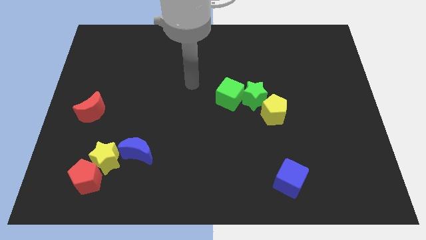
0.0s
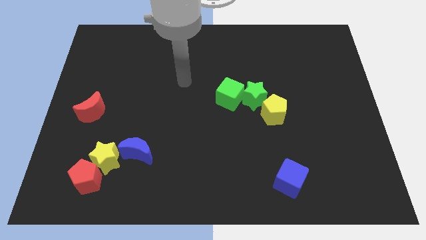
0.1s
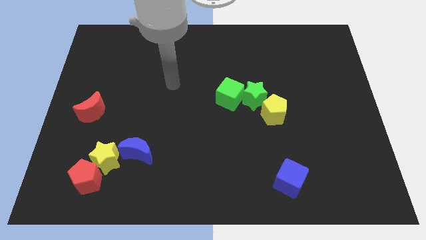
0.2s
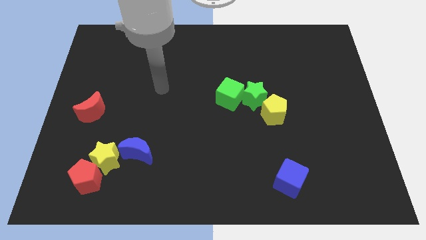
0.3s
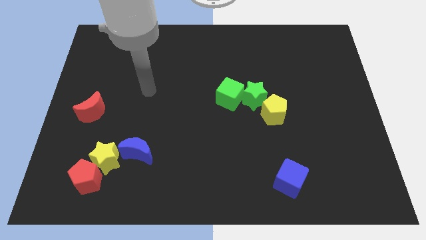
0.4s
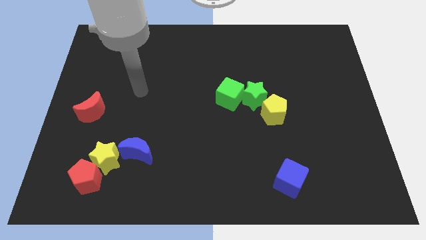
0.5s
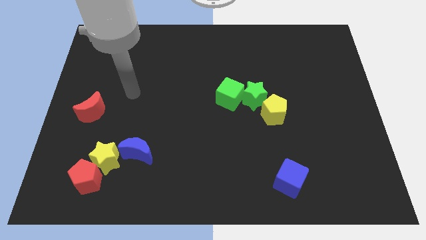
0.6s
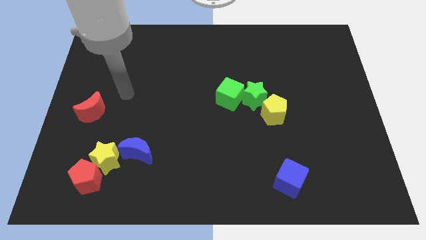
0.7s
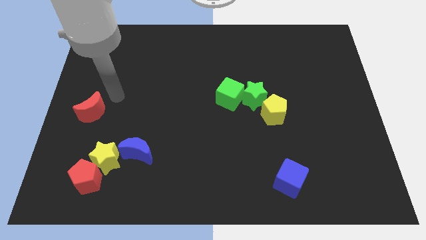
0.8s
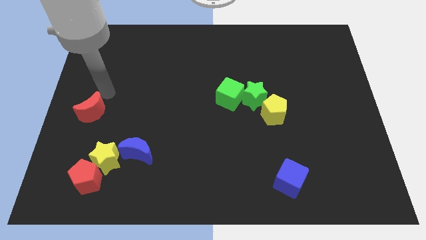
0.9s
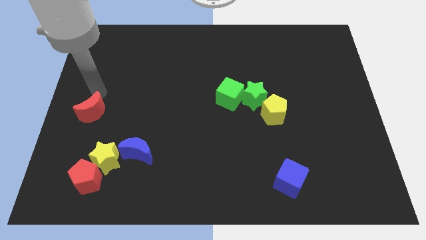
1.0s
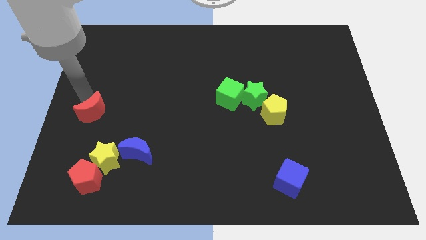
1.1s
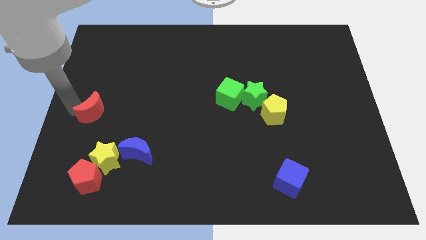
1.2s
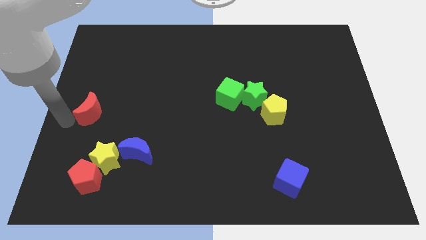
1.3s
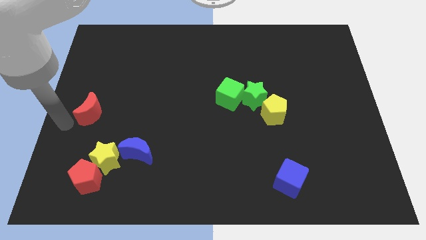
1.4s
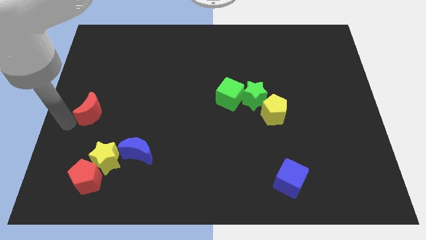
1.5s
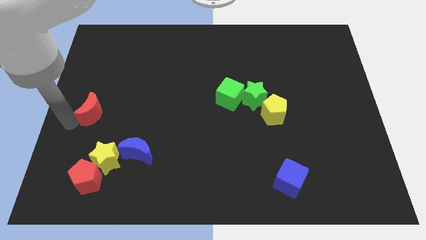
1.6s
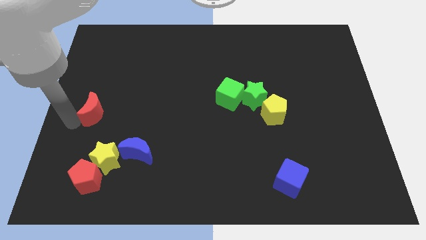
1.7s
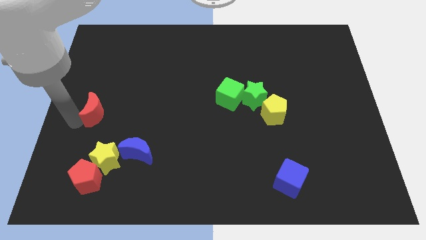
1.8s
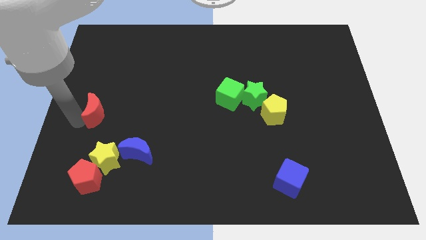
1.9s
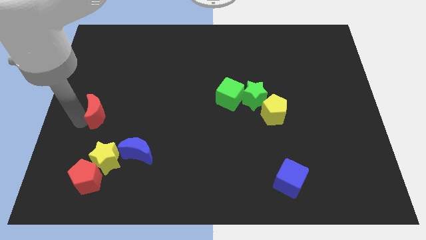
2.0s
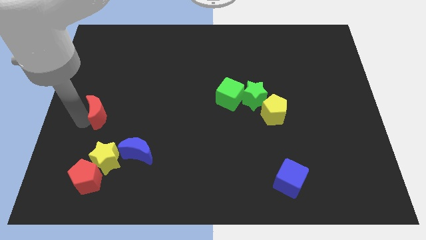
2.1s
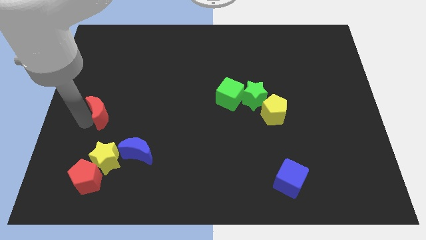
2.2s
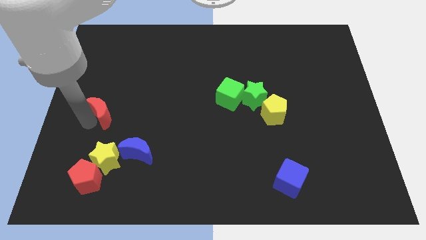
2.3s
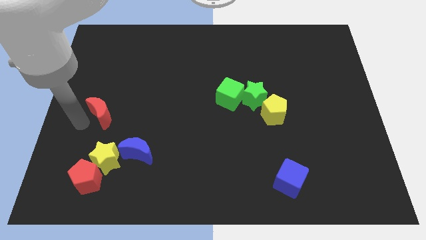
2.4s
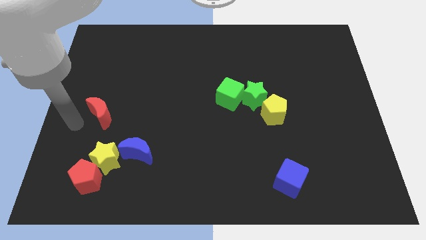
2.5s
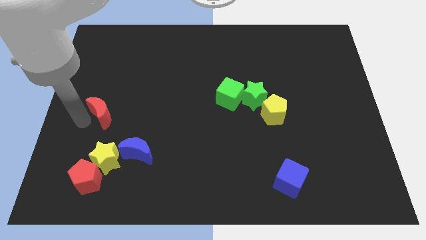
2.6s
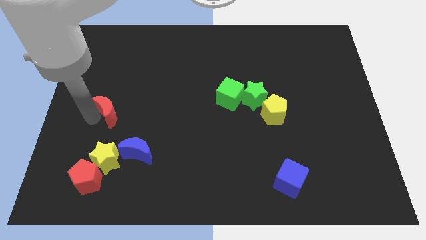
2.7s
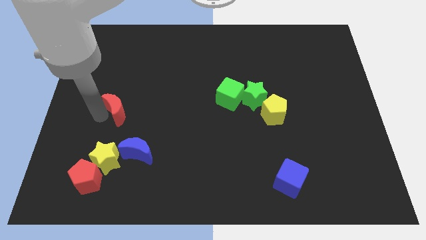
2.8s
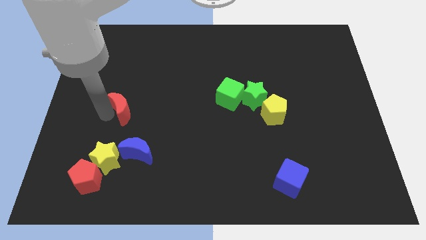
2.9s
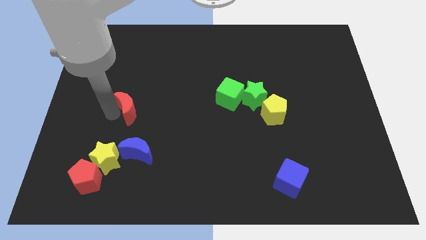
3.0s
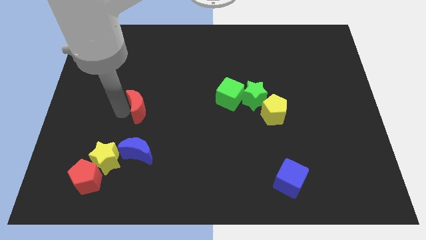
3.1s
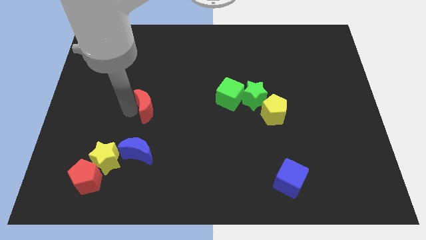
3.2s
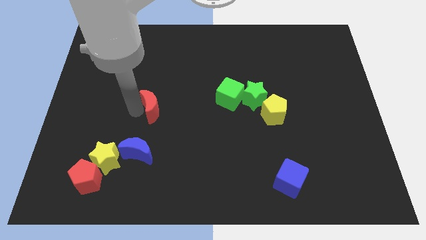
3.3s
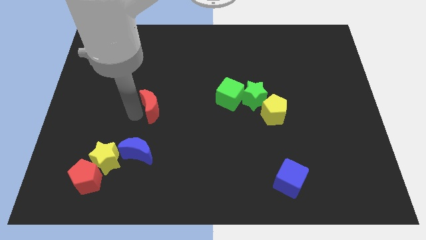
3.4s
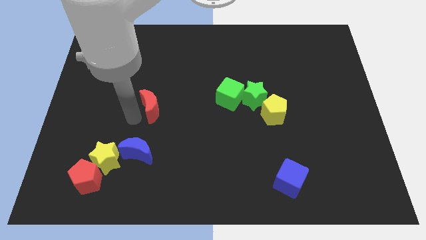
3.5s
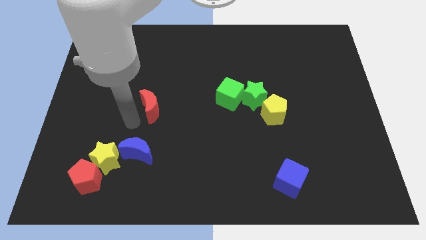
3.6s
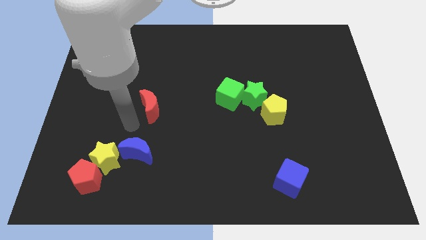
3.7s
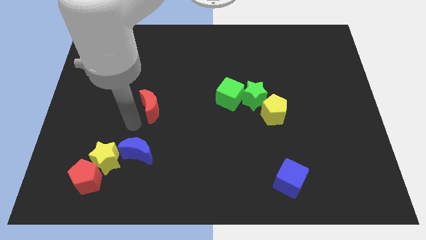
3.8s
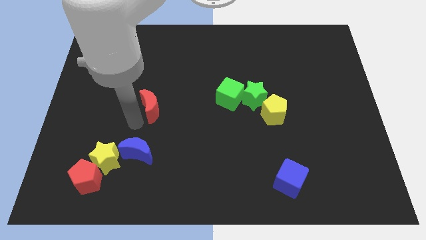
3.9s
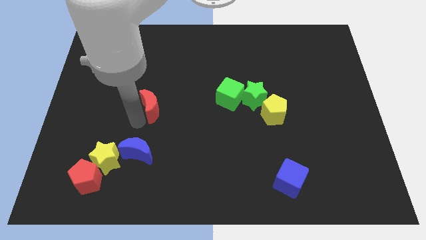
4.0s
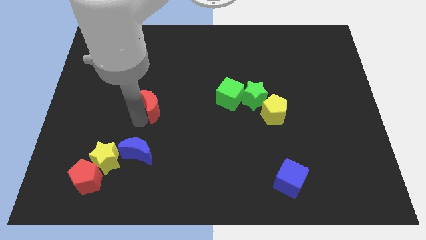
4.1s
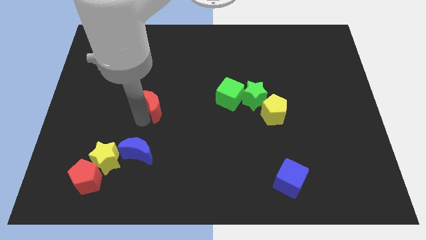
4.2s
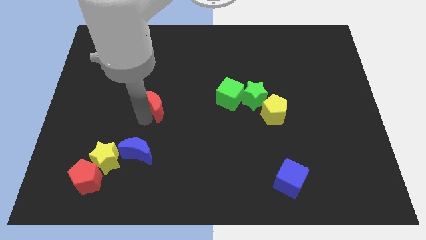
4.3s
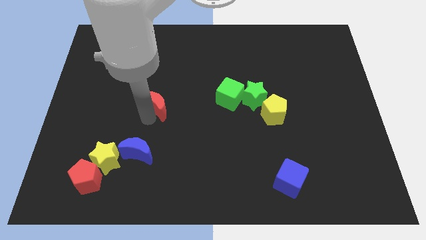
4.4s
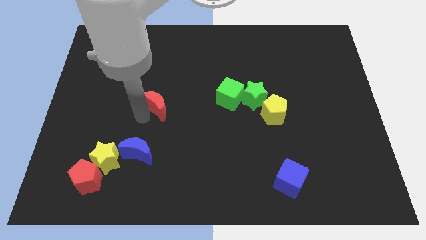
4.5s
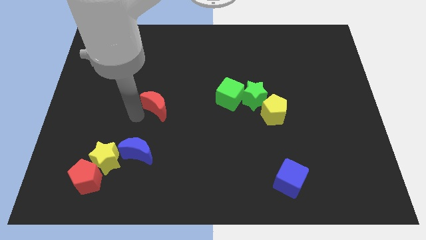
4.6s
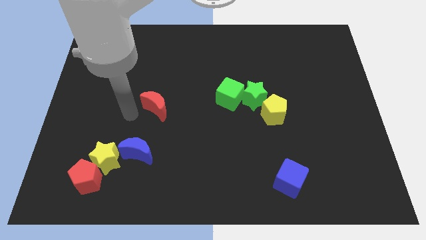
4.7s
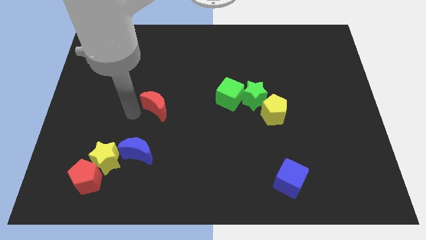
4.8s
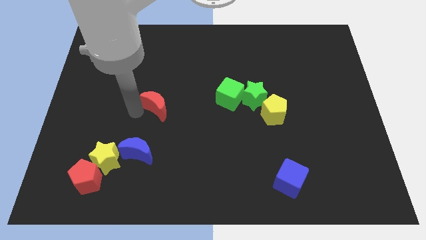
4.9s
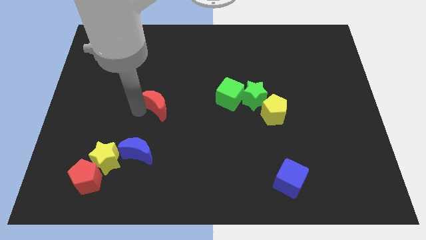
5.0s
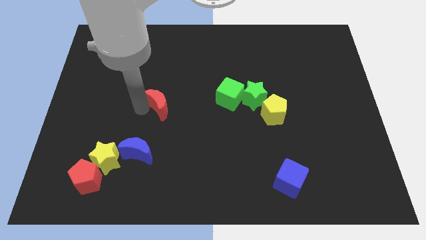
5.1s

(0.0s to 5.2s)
slide the red moon to the center of the board

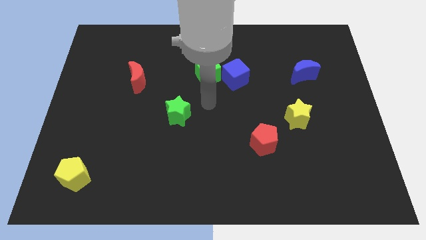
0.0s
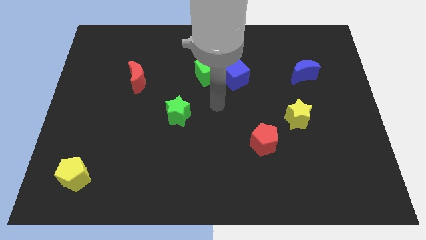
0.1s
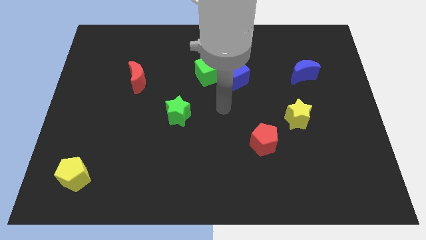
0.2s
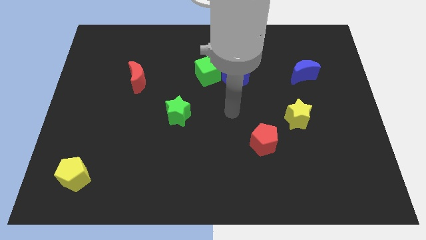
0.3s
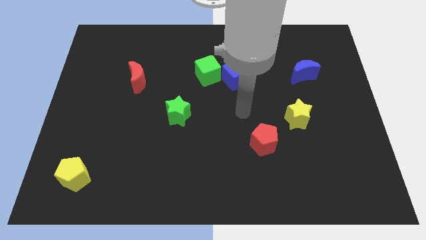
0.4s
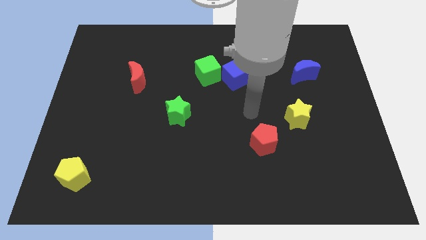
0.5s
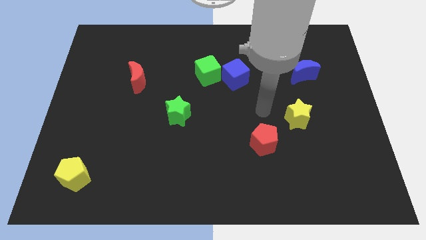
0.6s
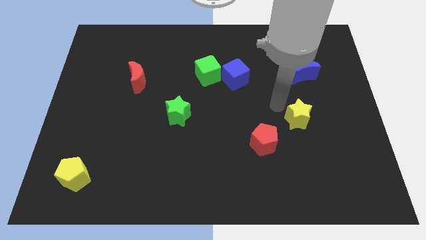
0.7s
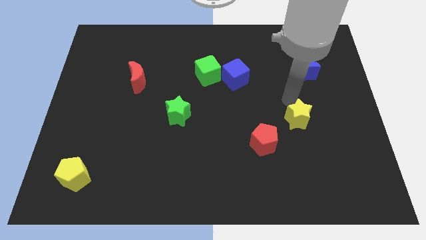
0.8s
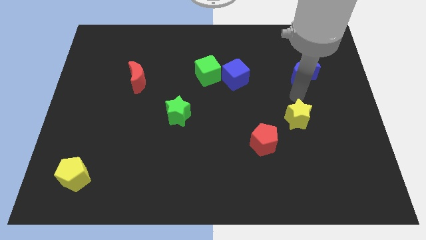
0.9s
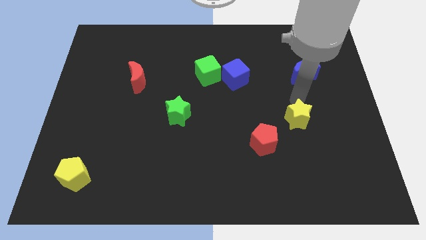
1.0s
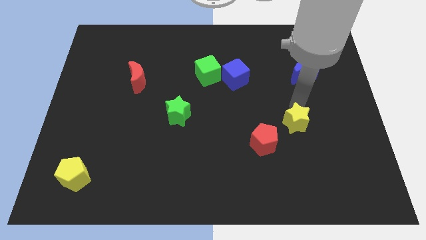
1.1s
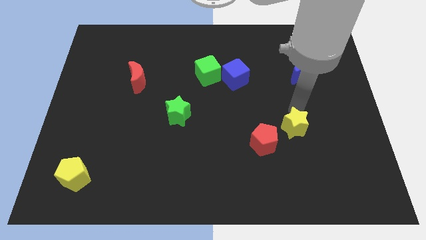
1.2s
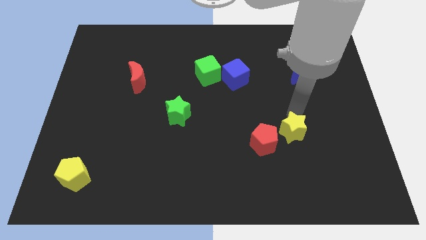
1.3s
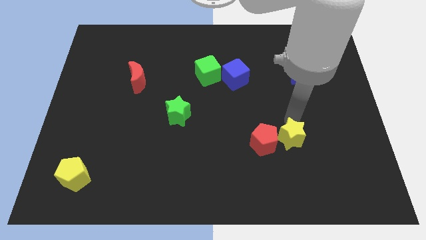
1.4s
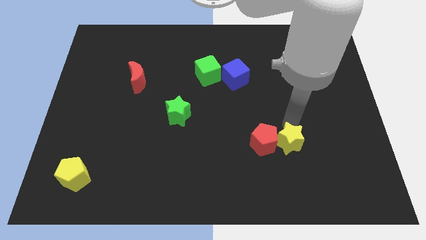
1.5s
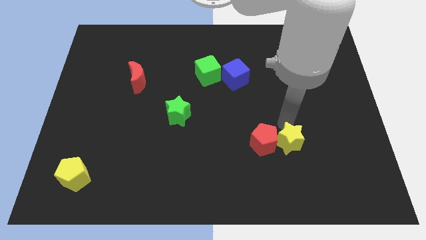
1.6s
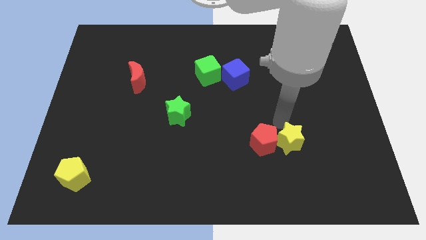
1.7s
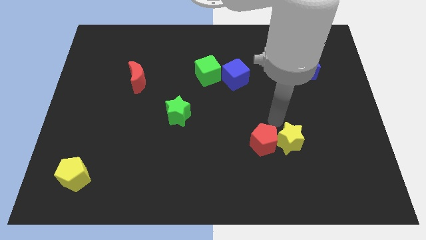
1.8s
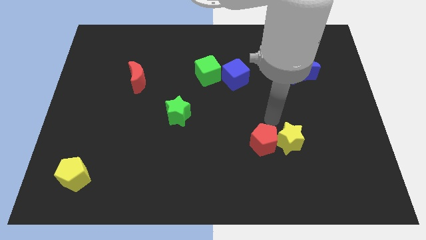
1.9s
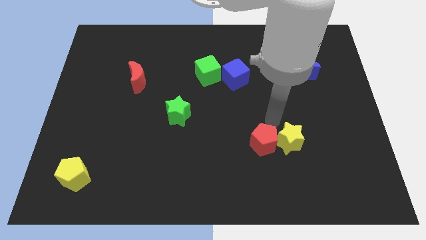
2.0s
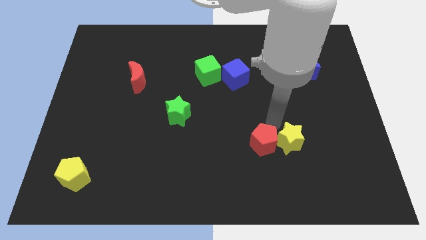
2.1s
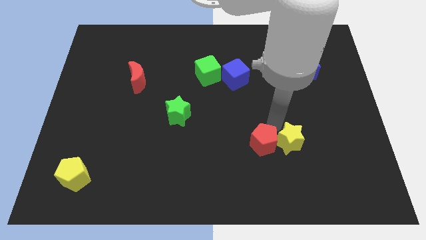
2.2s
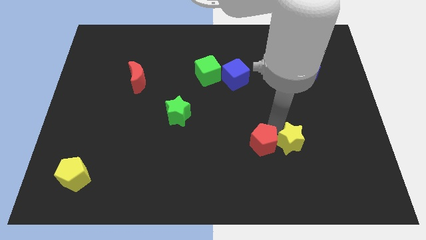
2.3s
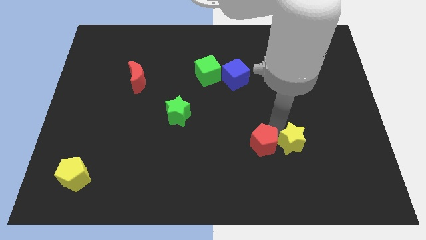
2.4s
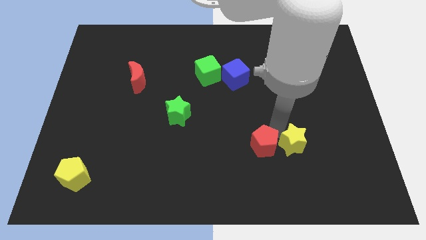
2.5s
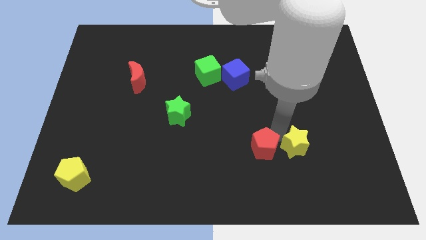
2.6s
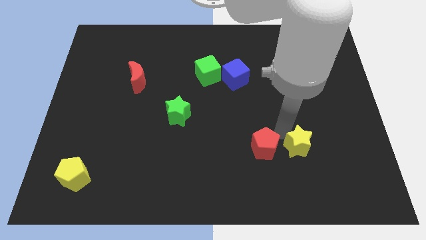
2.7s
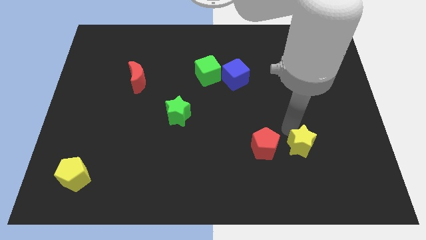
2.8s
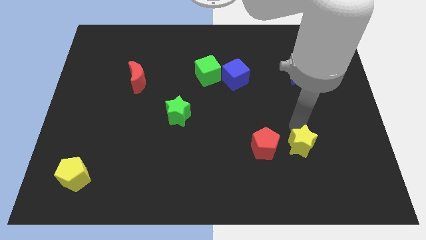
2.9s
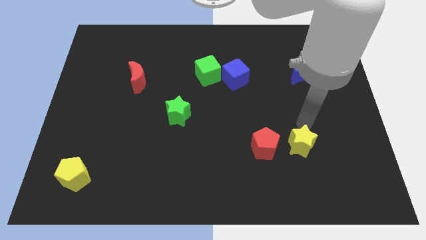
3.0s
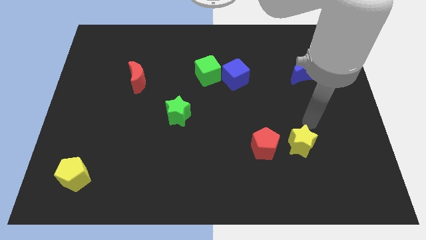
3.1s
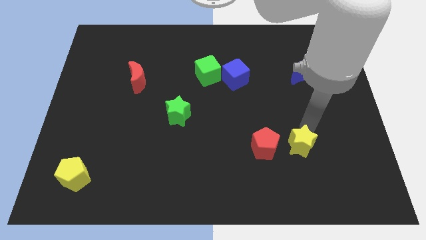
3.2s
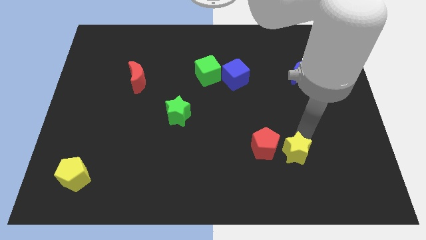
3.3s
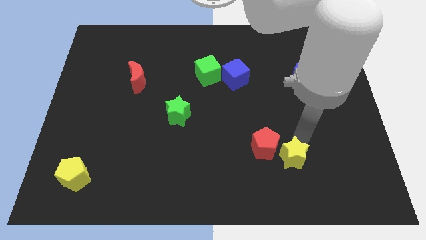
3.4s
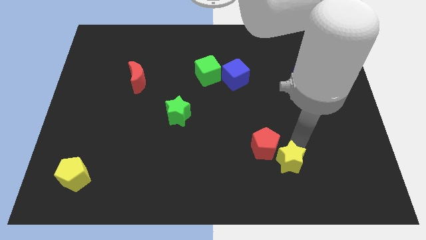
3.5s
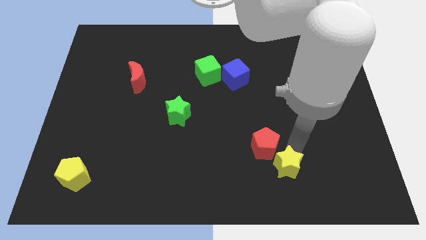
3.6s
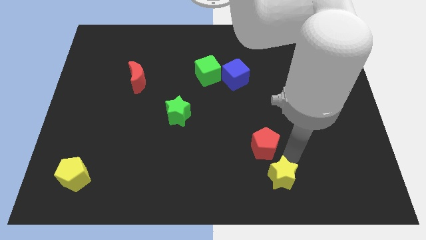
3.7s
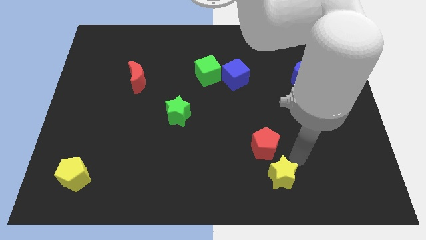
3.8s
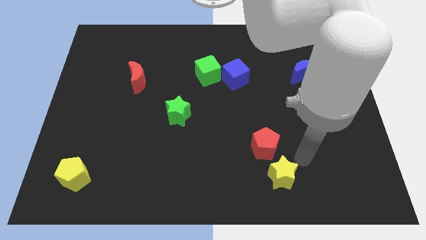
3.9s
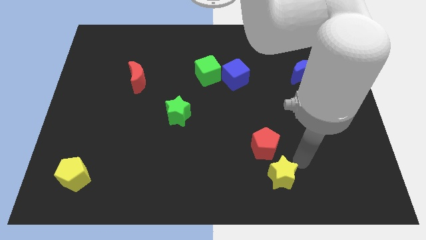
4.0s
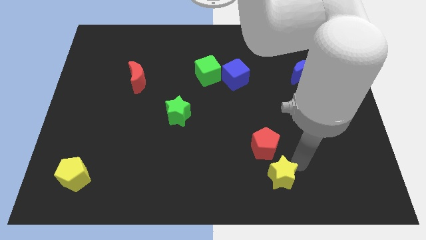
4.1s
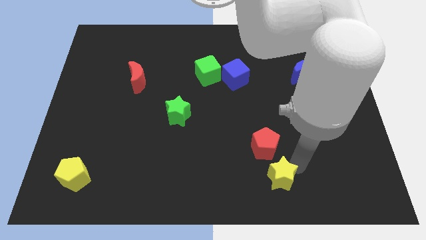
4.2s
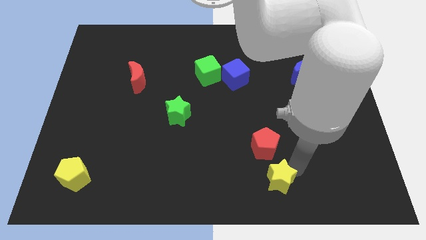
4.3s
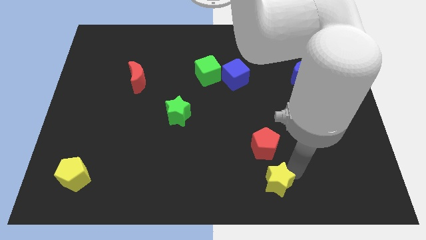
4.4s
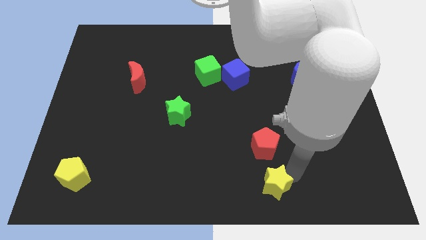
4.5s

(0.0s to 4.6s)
move the yellow star to the bottom side
